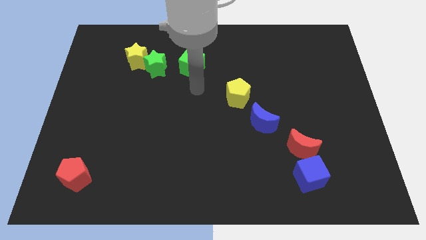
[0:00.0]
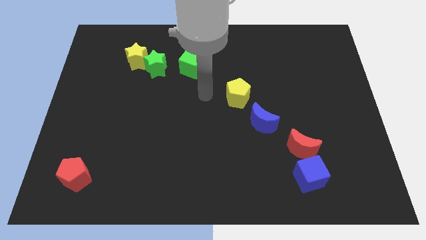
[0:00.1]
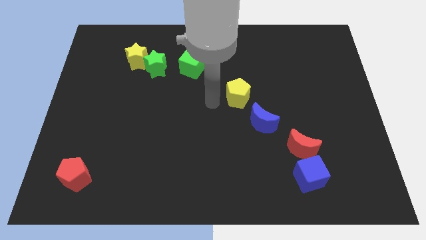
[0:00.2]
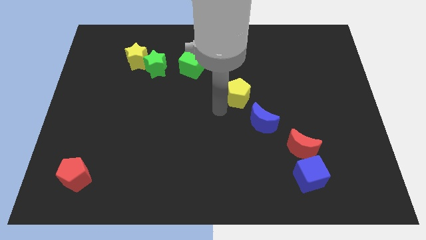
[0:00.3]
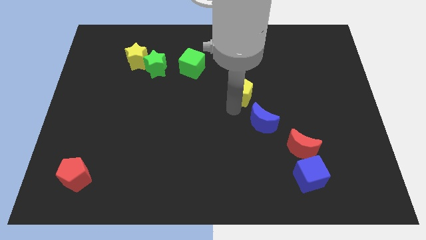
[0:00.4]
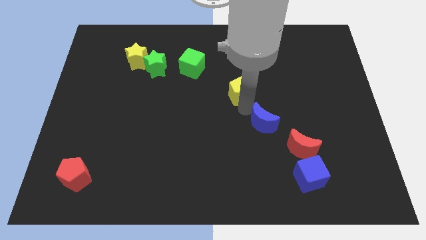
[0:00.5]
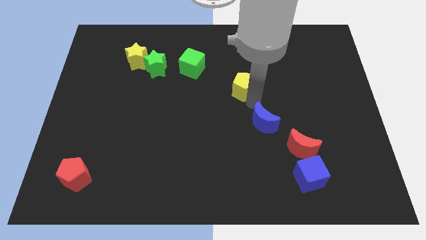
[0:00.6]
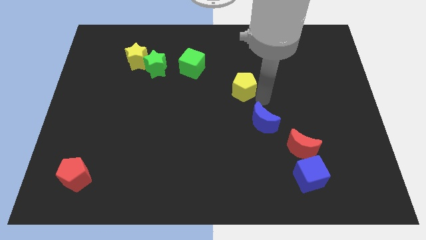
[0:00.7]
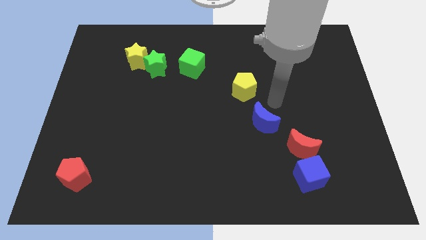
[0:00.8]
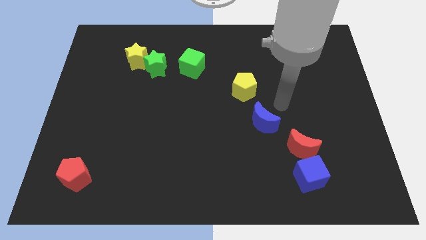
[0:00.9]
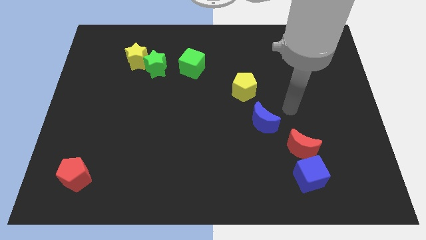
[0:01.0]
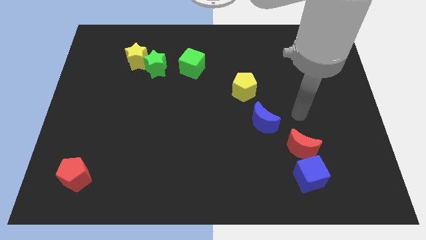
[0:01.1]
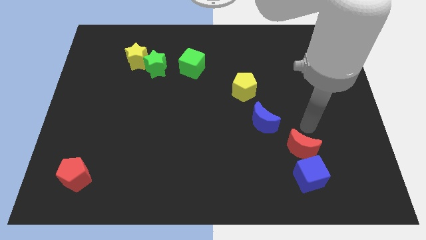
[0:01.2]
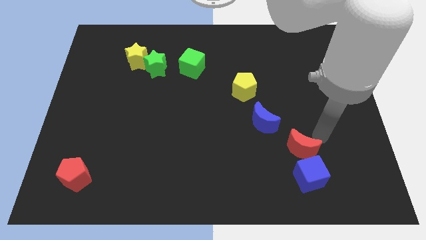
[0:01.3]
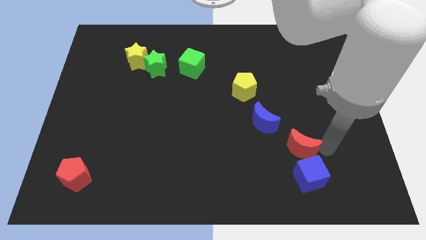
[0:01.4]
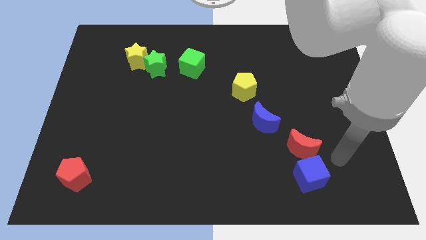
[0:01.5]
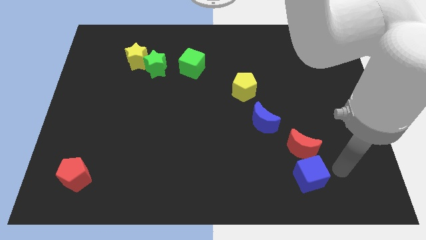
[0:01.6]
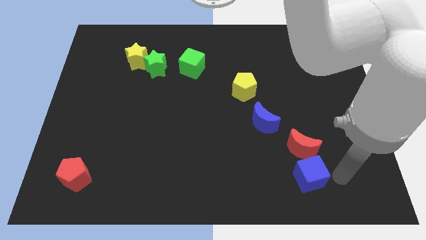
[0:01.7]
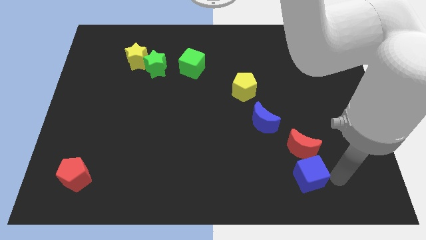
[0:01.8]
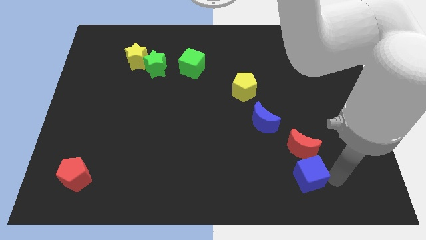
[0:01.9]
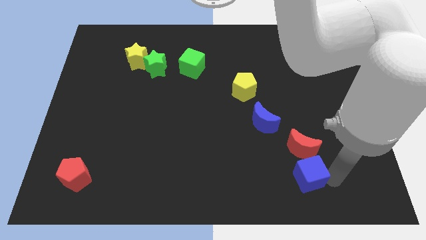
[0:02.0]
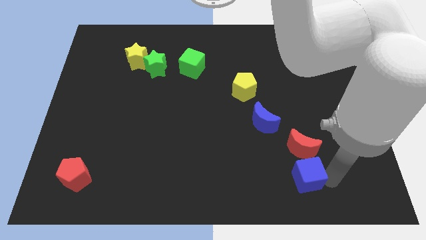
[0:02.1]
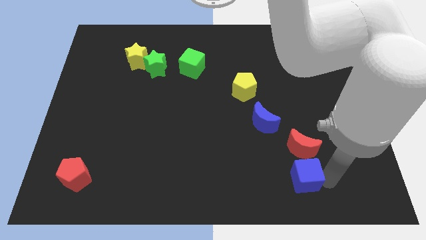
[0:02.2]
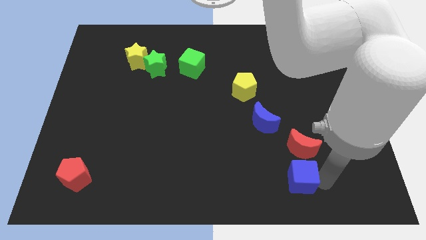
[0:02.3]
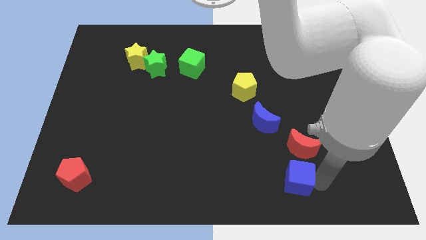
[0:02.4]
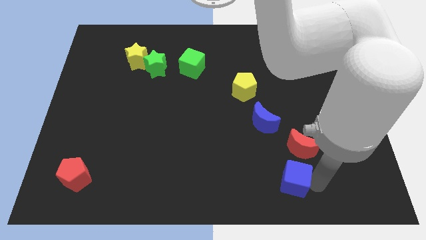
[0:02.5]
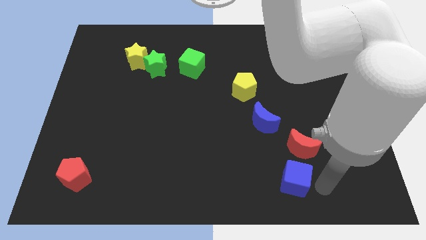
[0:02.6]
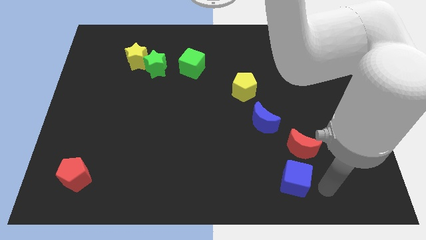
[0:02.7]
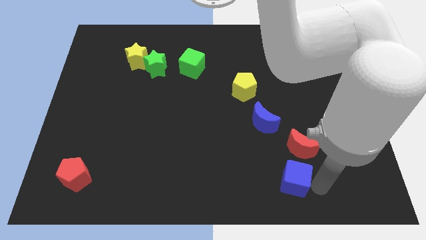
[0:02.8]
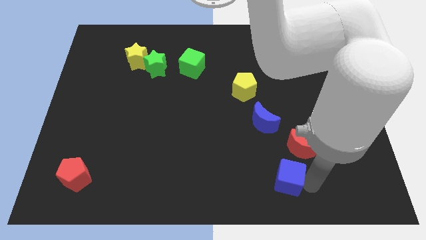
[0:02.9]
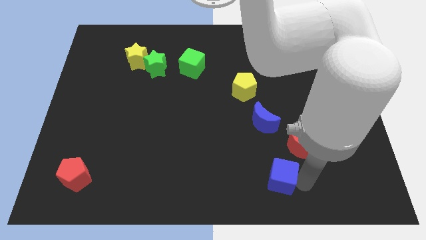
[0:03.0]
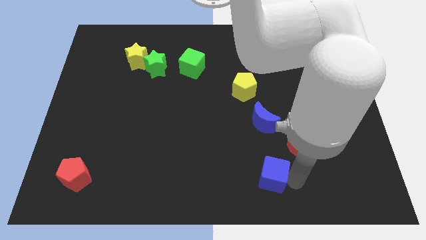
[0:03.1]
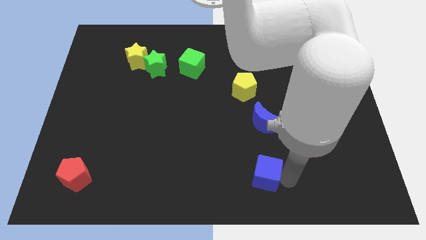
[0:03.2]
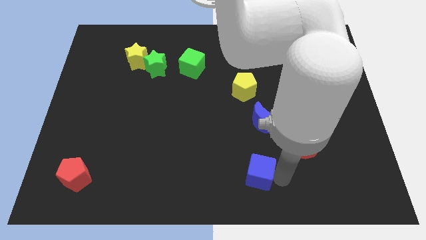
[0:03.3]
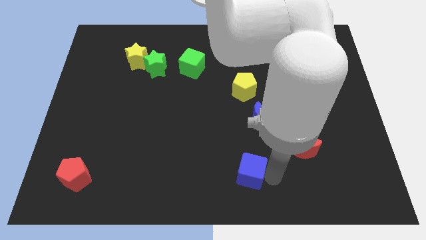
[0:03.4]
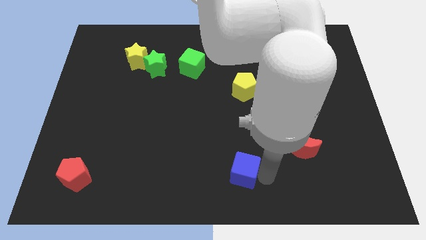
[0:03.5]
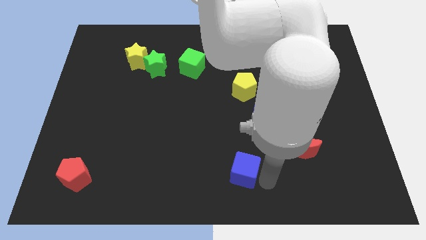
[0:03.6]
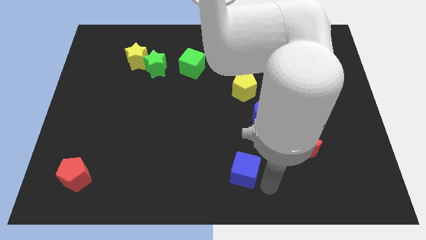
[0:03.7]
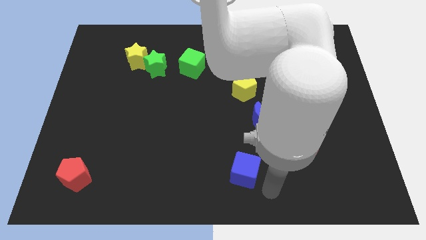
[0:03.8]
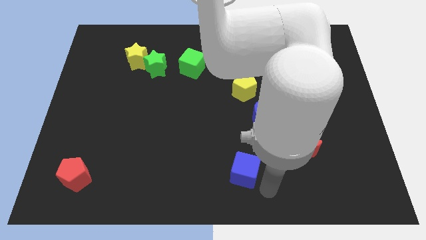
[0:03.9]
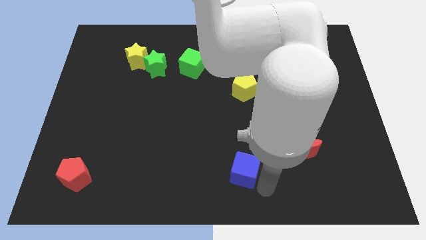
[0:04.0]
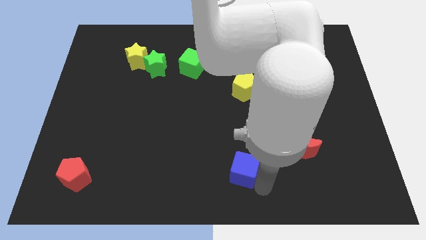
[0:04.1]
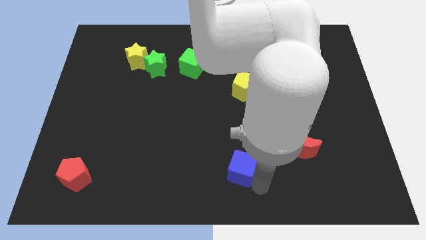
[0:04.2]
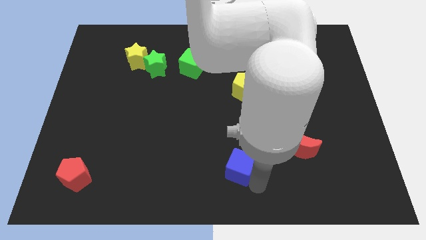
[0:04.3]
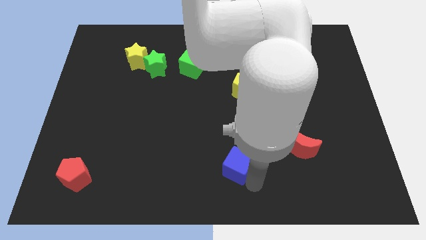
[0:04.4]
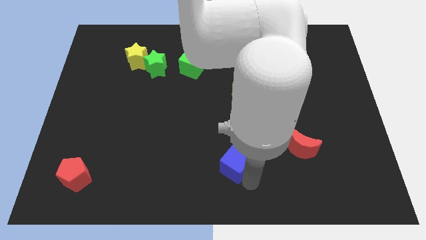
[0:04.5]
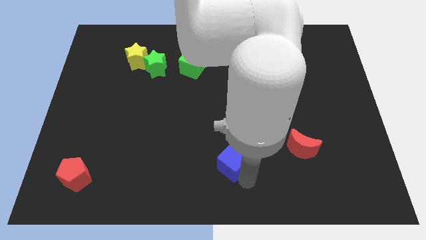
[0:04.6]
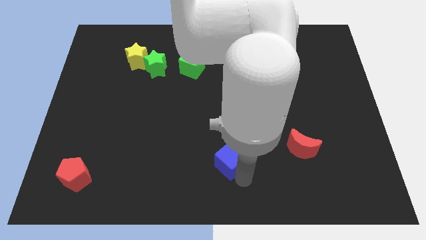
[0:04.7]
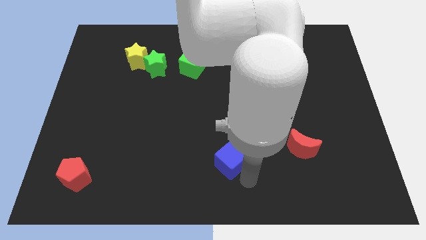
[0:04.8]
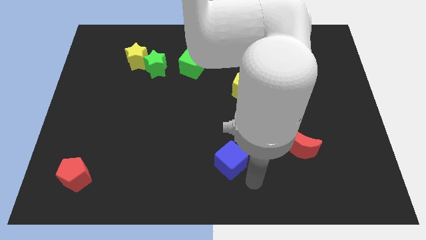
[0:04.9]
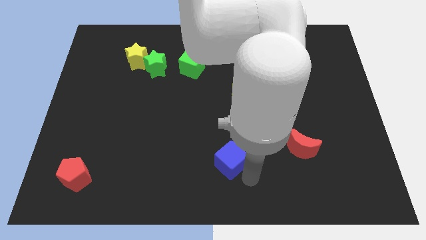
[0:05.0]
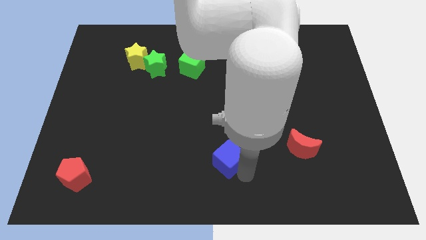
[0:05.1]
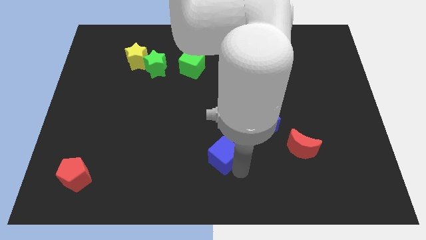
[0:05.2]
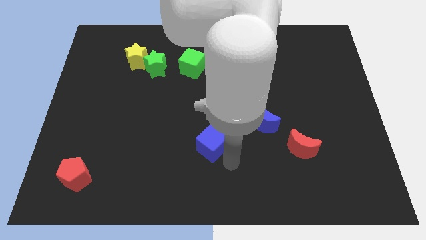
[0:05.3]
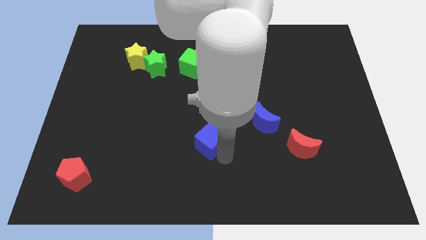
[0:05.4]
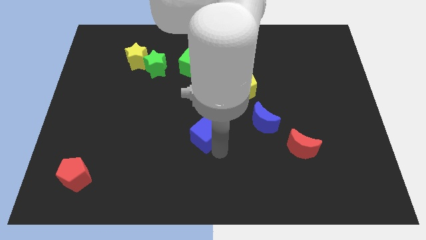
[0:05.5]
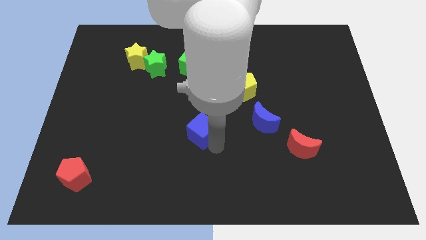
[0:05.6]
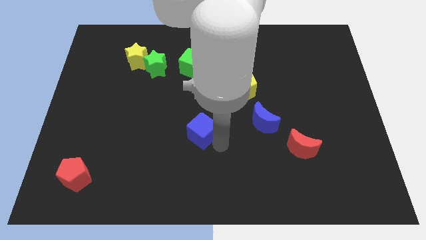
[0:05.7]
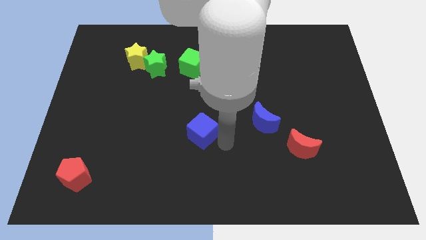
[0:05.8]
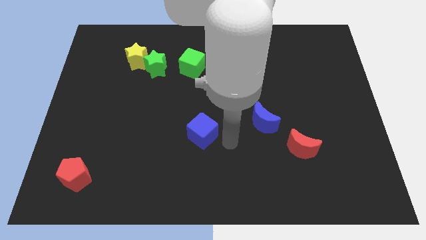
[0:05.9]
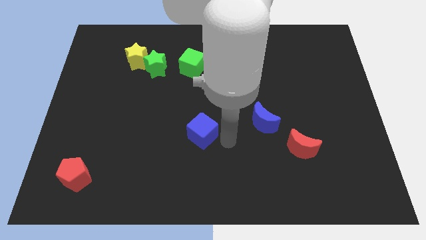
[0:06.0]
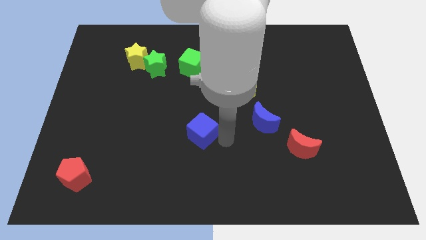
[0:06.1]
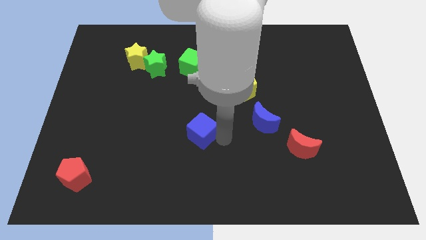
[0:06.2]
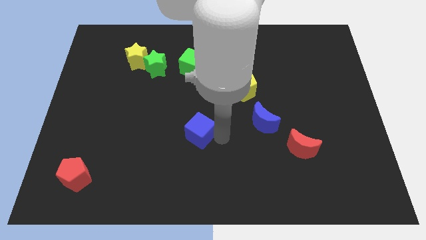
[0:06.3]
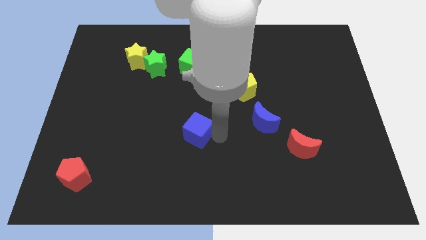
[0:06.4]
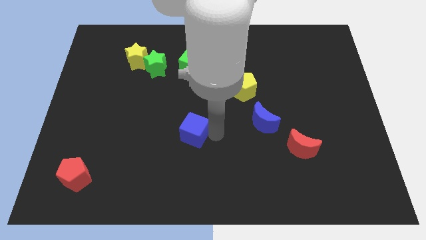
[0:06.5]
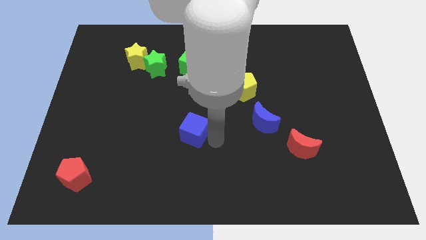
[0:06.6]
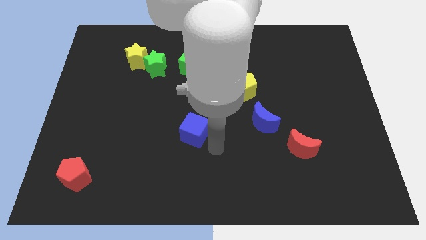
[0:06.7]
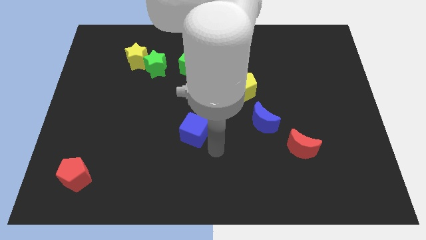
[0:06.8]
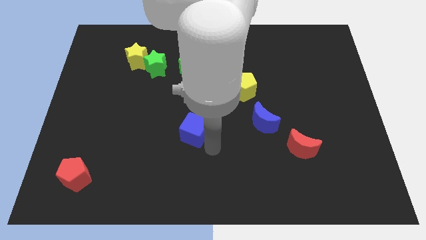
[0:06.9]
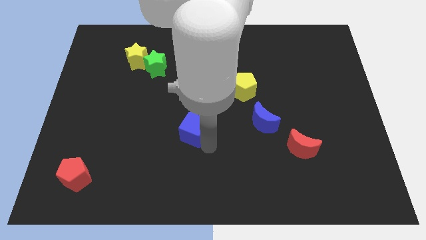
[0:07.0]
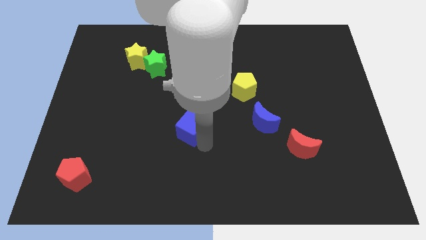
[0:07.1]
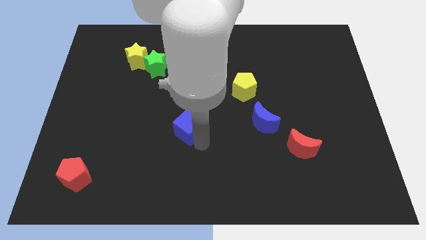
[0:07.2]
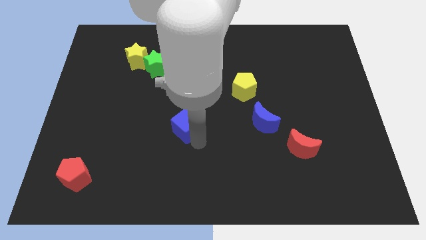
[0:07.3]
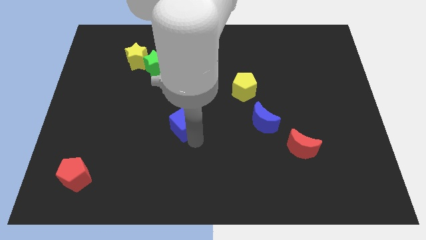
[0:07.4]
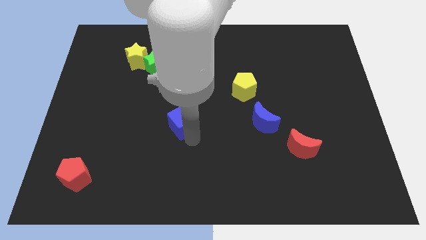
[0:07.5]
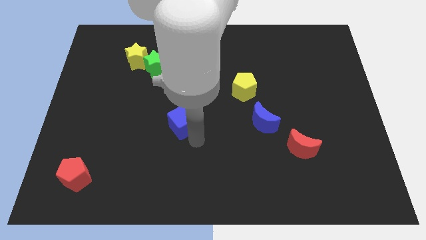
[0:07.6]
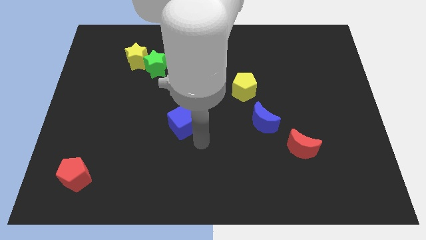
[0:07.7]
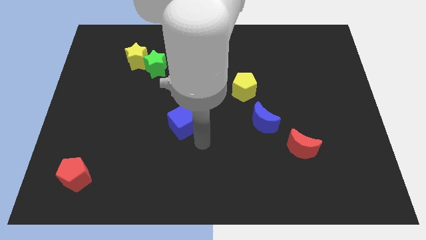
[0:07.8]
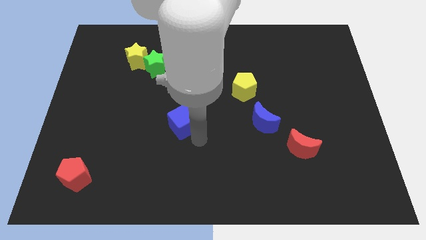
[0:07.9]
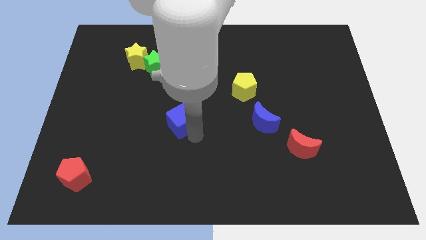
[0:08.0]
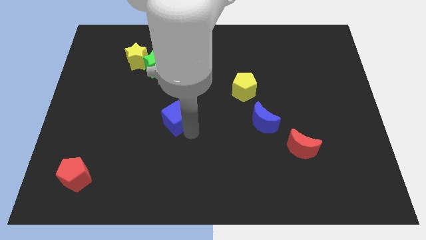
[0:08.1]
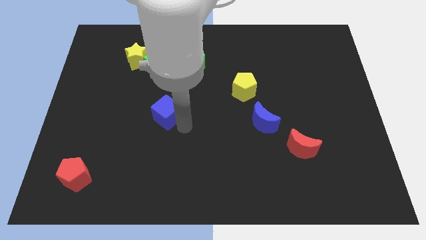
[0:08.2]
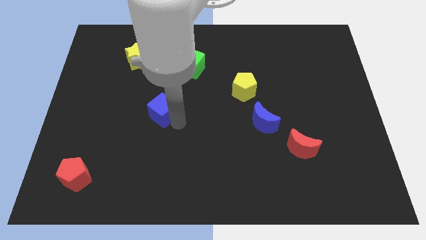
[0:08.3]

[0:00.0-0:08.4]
put the blue cube to the bottom side of the green star
